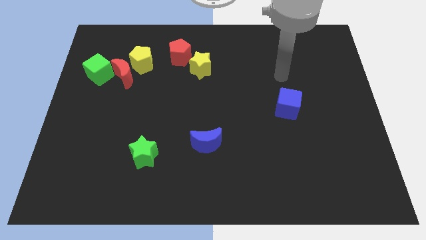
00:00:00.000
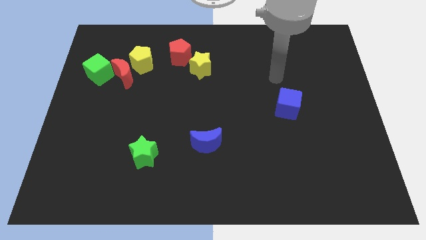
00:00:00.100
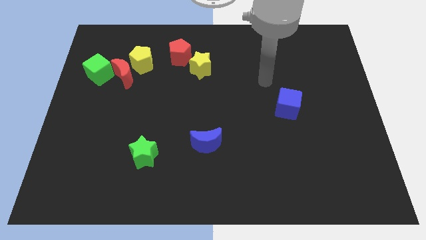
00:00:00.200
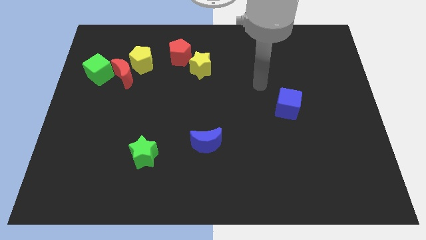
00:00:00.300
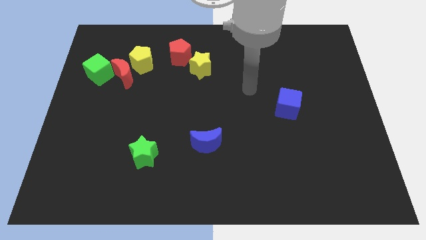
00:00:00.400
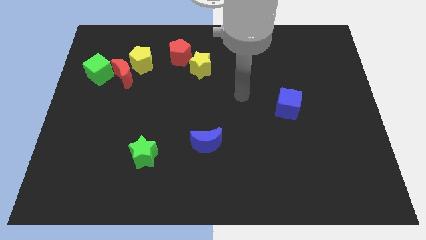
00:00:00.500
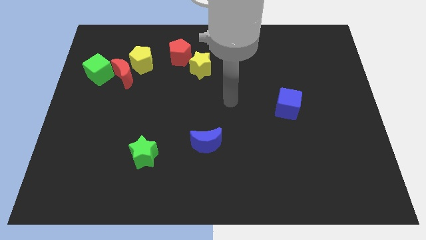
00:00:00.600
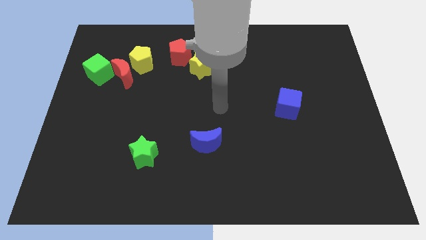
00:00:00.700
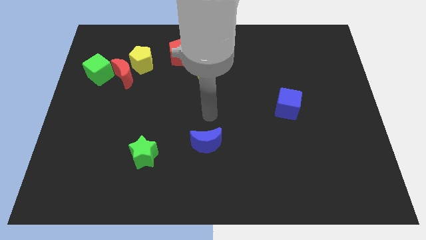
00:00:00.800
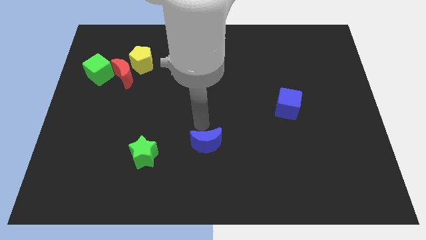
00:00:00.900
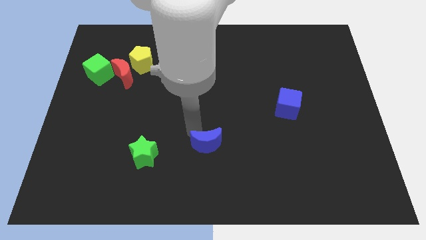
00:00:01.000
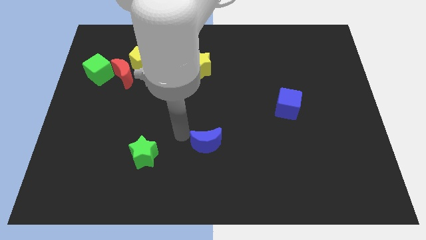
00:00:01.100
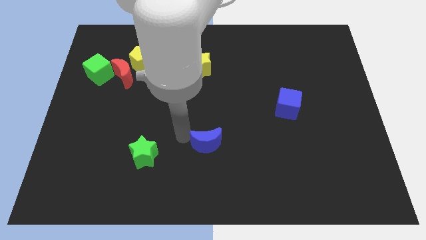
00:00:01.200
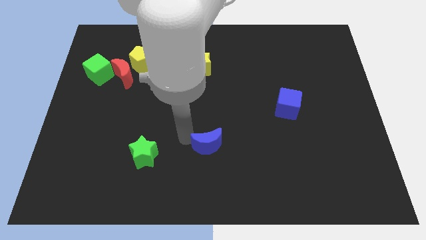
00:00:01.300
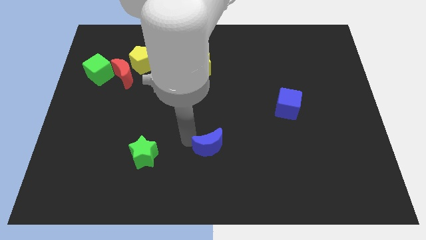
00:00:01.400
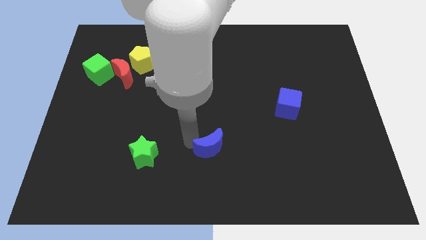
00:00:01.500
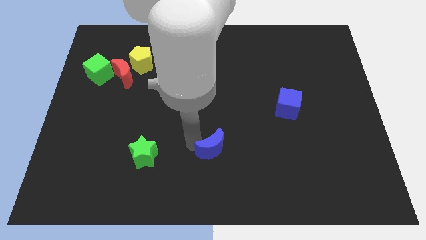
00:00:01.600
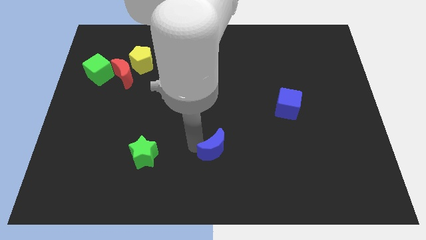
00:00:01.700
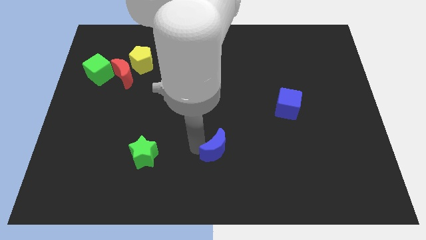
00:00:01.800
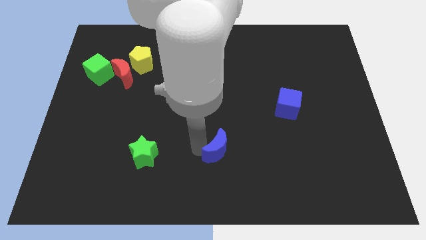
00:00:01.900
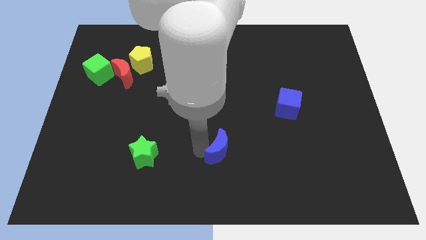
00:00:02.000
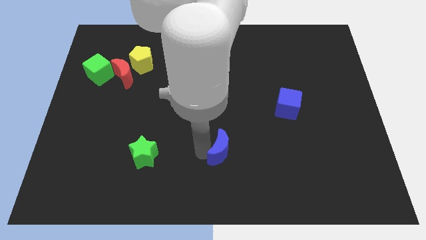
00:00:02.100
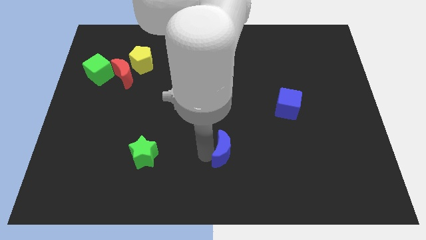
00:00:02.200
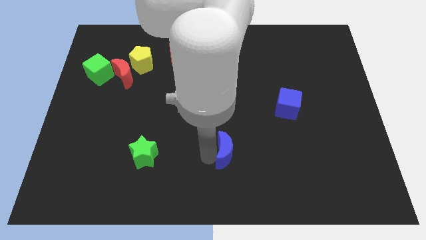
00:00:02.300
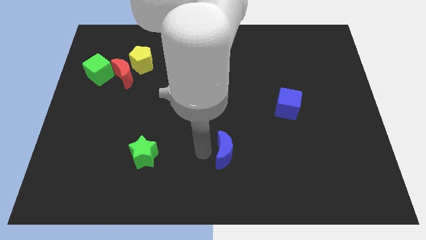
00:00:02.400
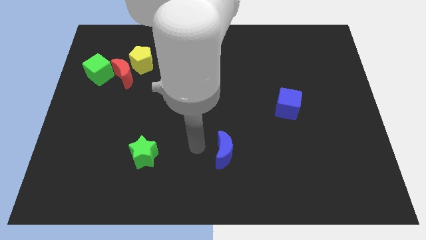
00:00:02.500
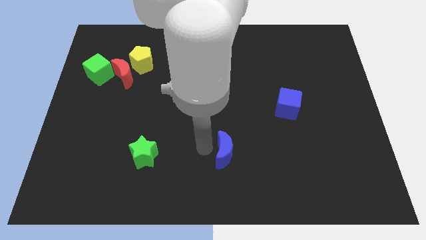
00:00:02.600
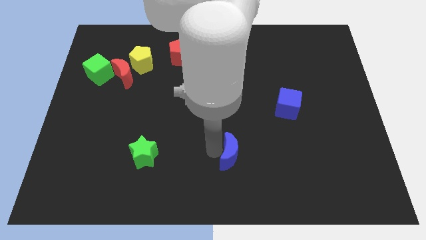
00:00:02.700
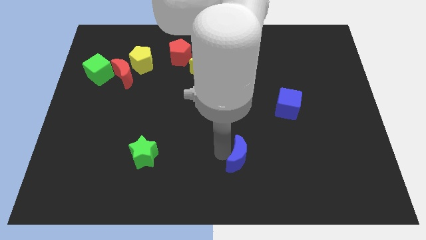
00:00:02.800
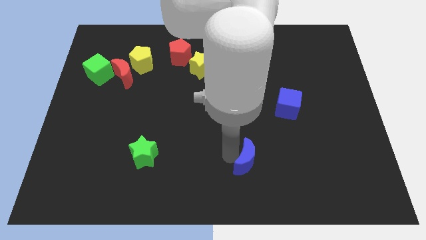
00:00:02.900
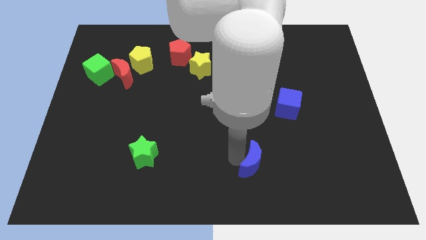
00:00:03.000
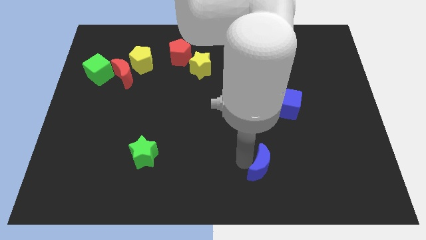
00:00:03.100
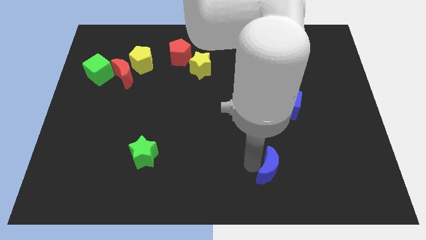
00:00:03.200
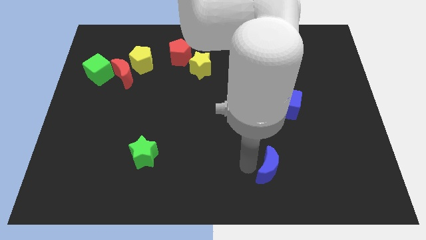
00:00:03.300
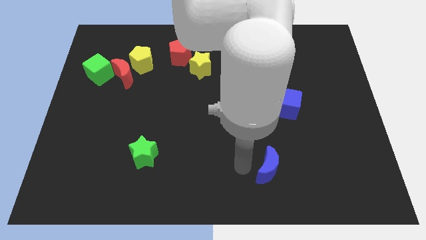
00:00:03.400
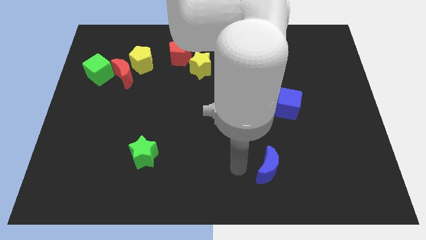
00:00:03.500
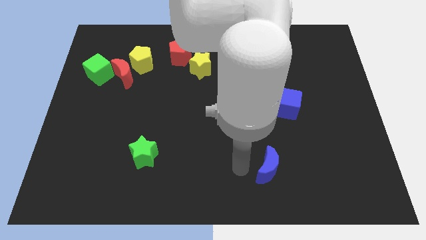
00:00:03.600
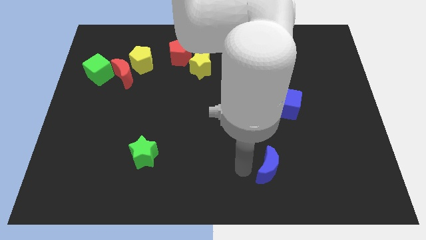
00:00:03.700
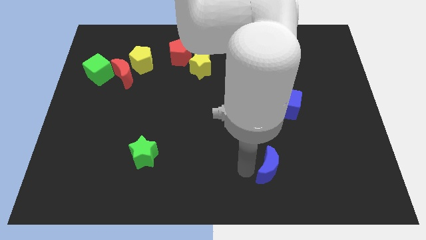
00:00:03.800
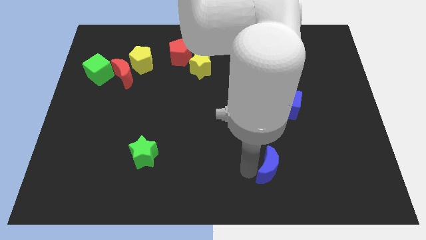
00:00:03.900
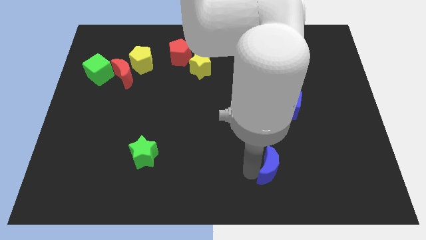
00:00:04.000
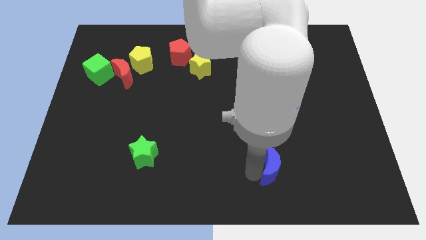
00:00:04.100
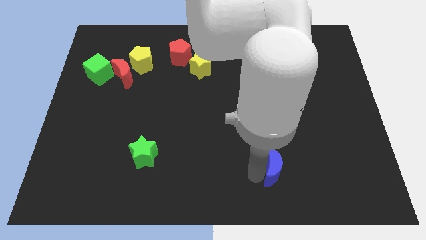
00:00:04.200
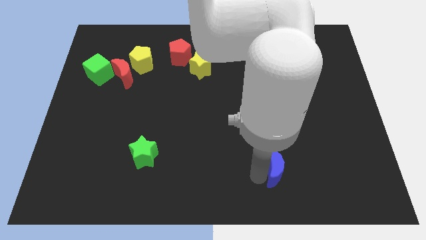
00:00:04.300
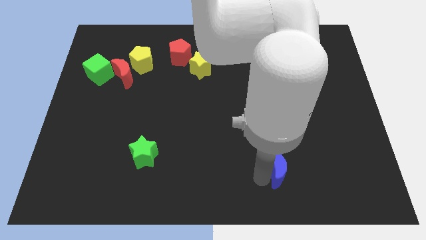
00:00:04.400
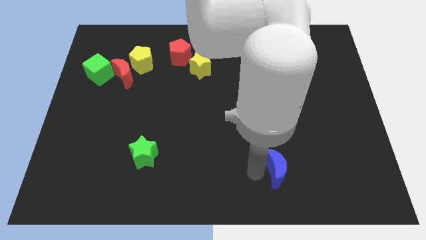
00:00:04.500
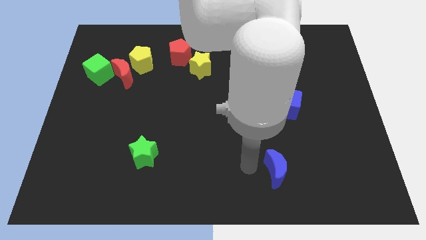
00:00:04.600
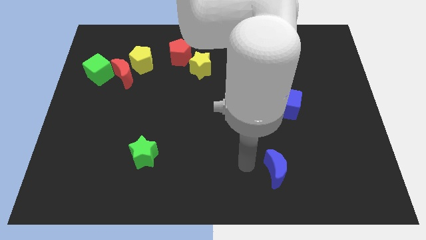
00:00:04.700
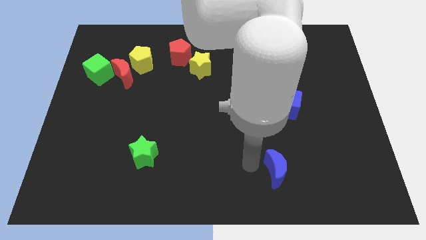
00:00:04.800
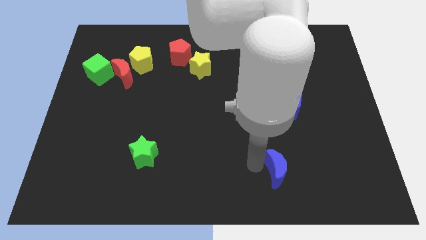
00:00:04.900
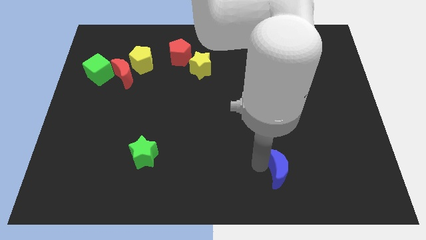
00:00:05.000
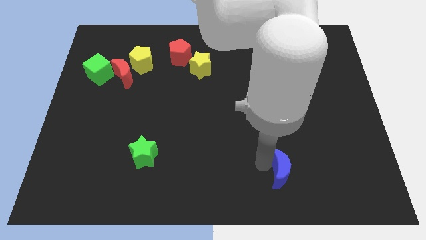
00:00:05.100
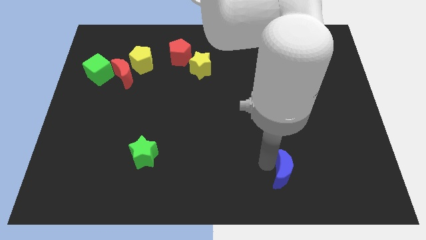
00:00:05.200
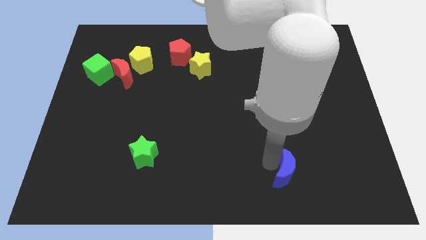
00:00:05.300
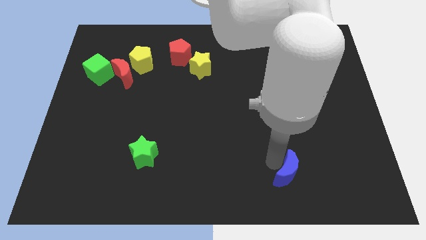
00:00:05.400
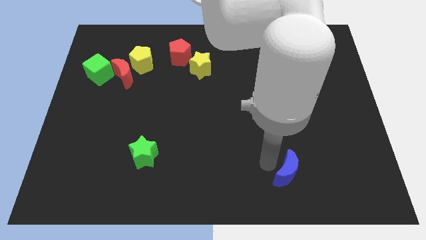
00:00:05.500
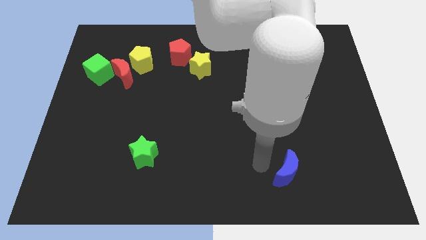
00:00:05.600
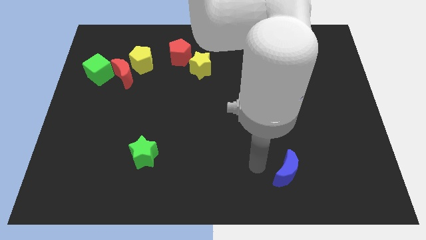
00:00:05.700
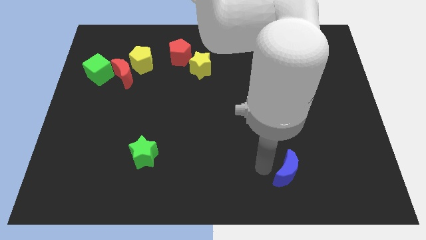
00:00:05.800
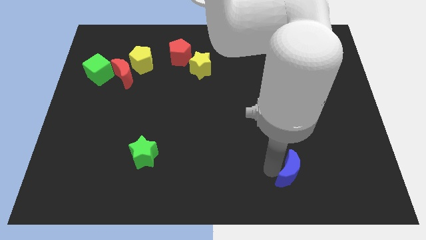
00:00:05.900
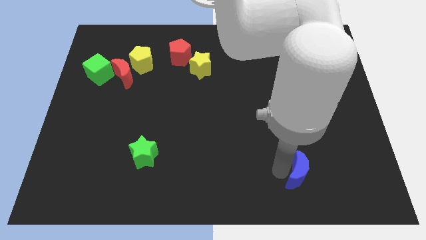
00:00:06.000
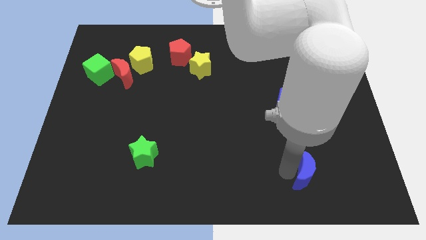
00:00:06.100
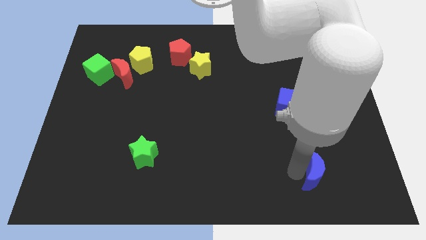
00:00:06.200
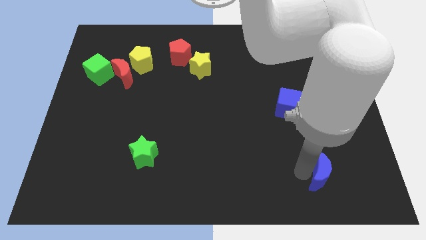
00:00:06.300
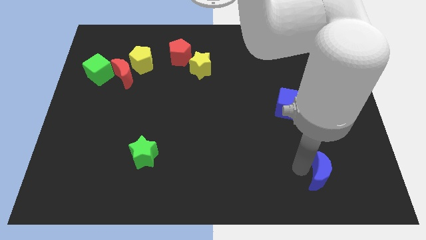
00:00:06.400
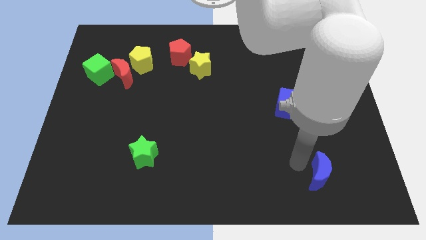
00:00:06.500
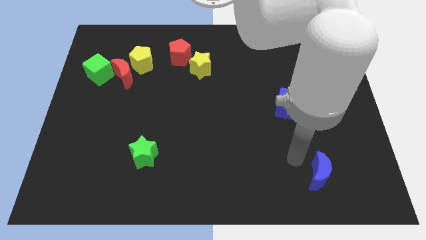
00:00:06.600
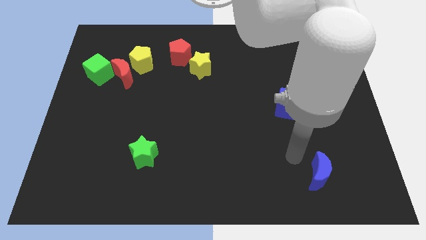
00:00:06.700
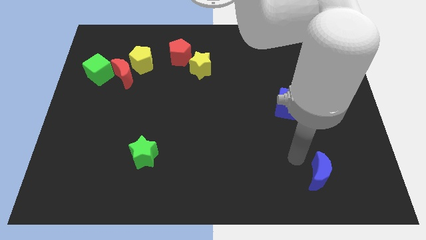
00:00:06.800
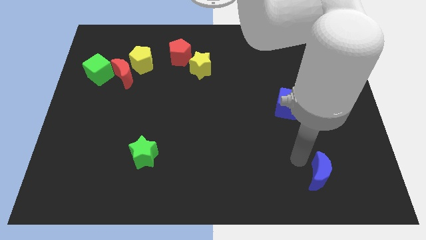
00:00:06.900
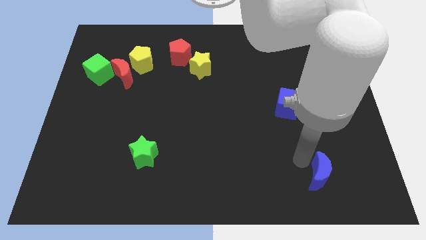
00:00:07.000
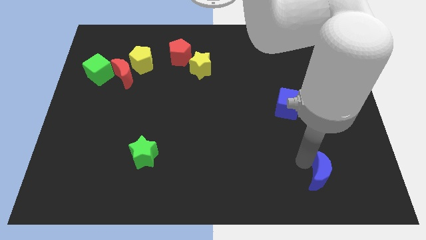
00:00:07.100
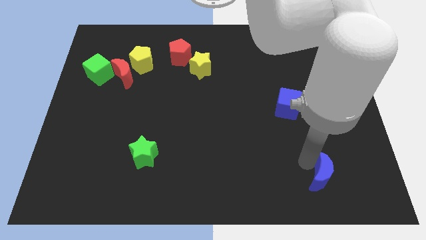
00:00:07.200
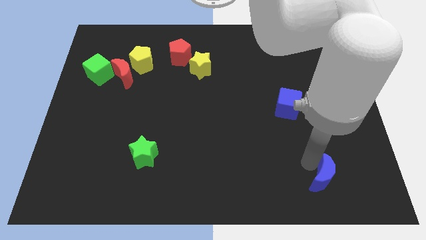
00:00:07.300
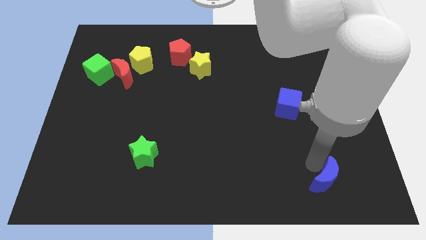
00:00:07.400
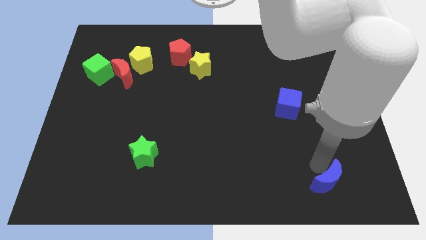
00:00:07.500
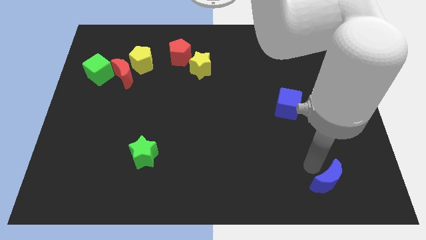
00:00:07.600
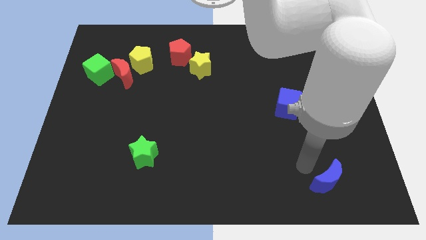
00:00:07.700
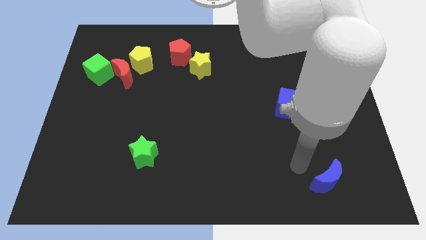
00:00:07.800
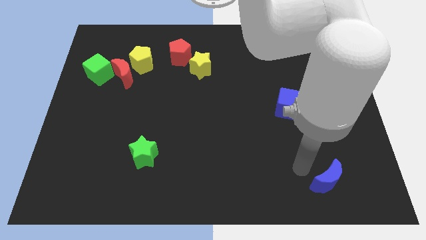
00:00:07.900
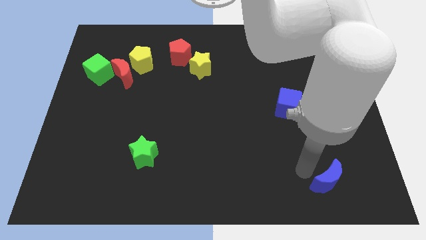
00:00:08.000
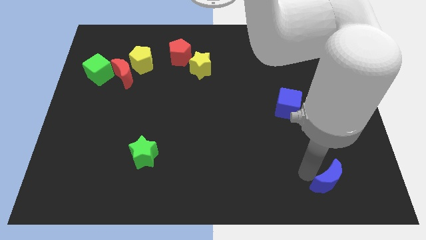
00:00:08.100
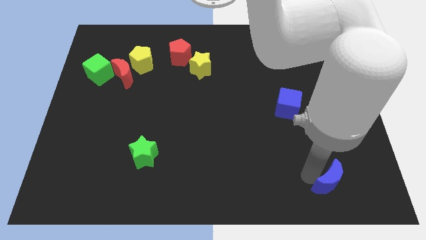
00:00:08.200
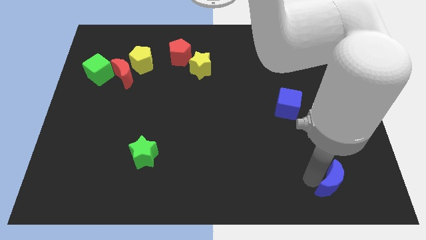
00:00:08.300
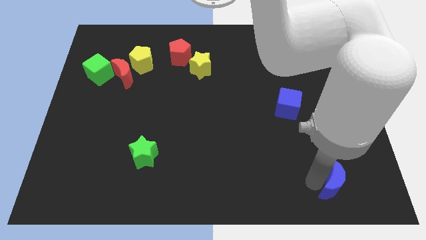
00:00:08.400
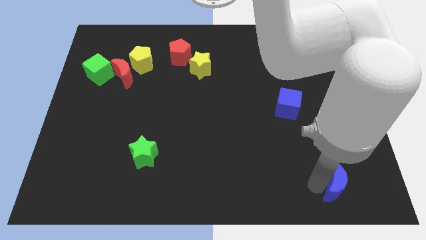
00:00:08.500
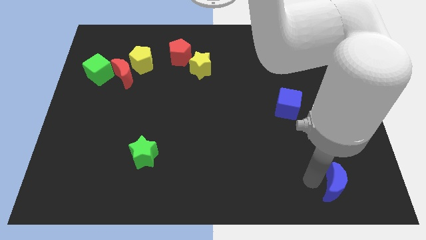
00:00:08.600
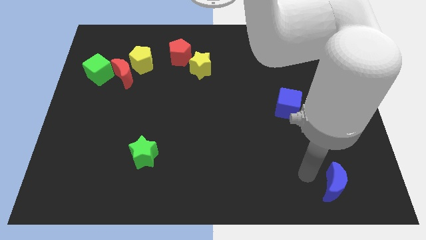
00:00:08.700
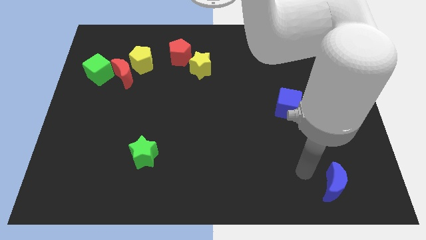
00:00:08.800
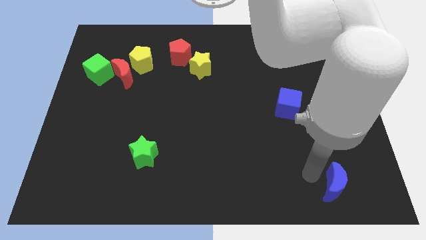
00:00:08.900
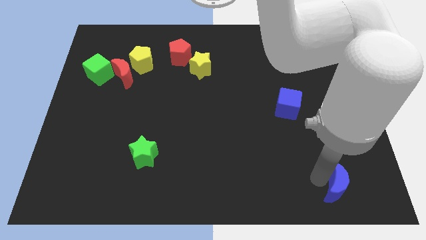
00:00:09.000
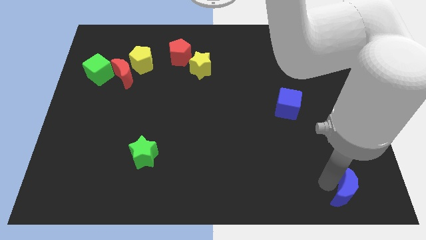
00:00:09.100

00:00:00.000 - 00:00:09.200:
put the blue moon to the bottom right
